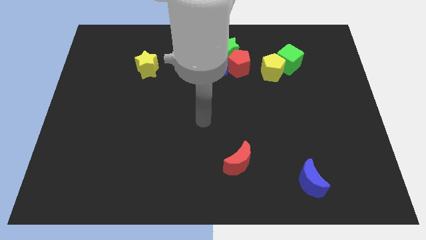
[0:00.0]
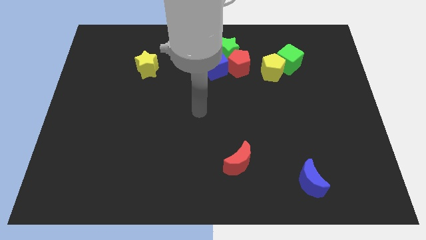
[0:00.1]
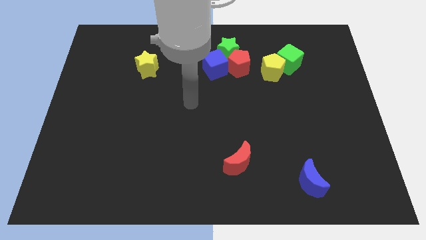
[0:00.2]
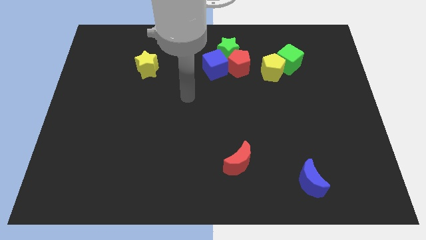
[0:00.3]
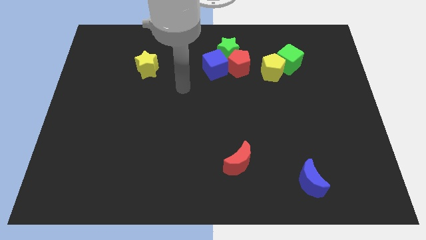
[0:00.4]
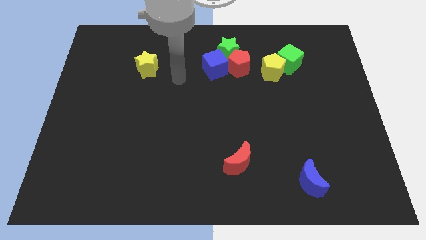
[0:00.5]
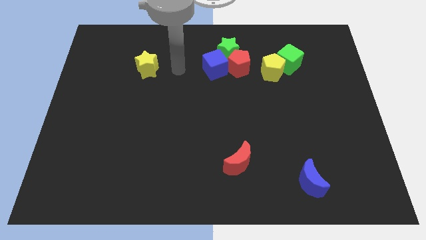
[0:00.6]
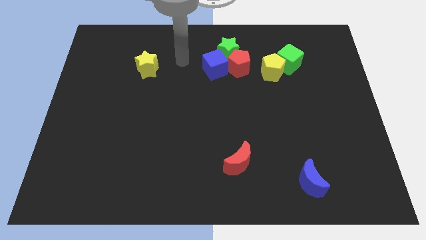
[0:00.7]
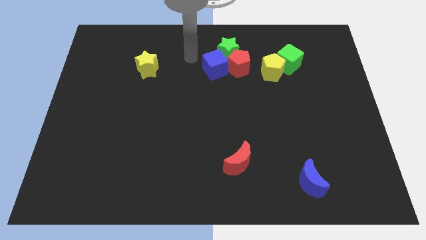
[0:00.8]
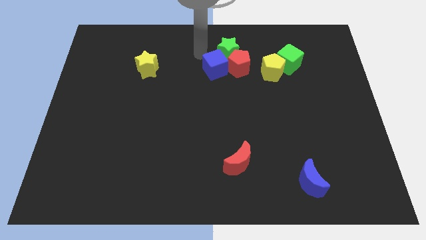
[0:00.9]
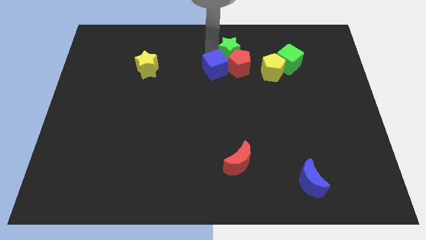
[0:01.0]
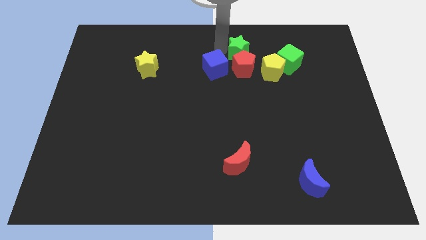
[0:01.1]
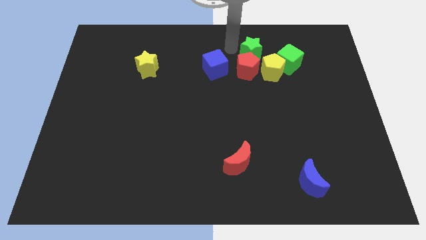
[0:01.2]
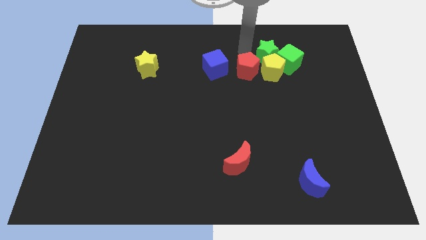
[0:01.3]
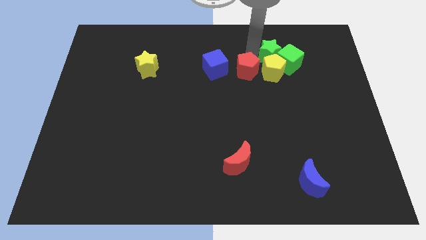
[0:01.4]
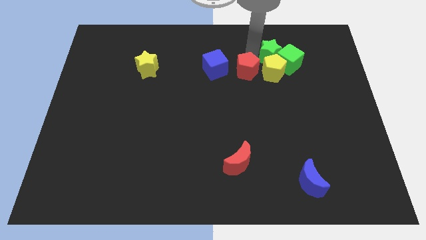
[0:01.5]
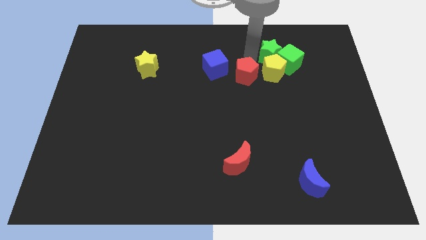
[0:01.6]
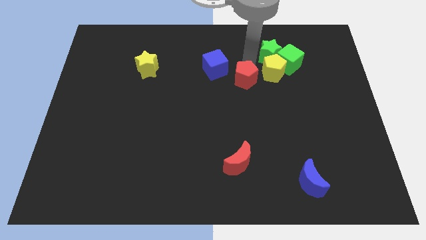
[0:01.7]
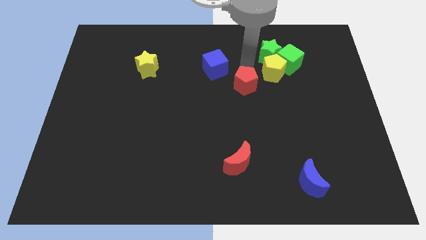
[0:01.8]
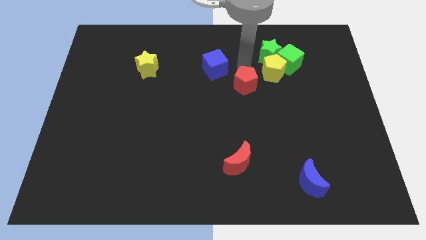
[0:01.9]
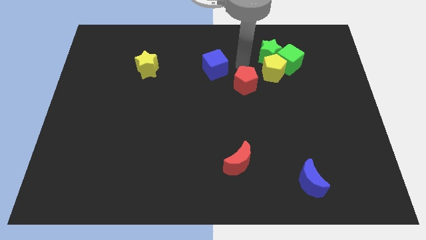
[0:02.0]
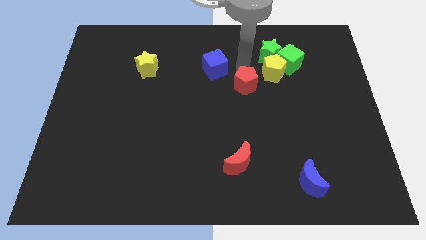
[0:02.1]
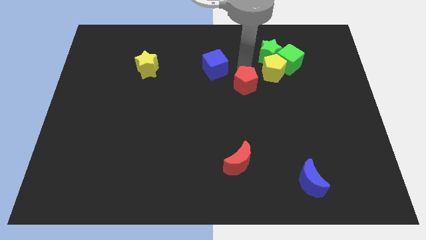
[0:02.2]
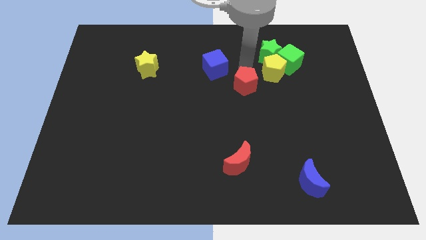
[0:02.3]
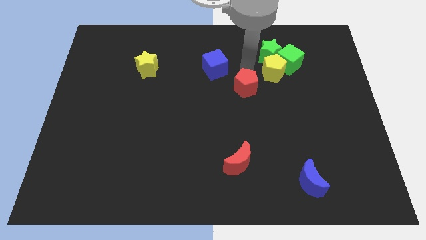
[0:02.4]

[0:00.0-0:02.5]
slightly push the red pentagon downwards

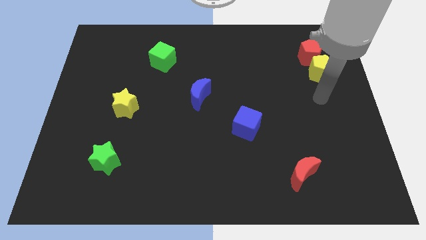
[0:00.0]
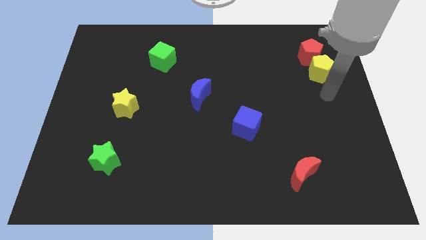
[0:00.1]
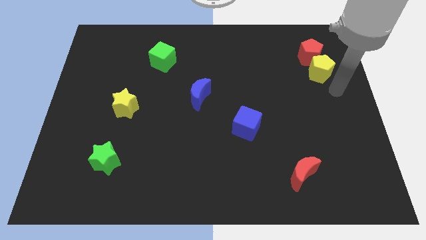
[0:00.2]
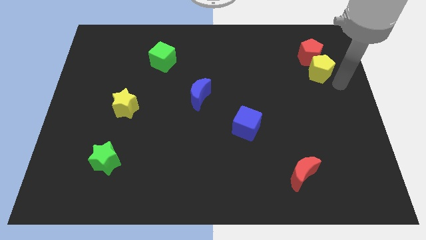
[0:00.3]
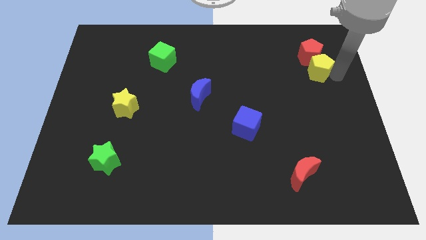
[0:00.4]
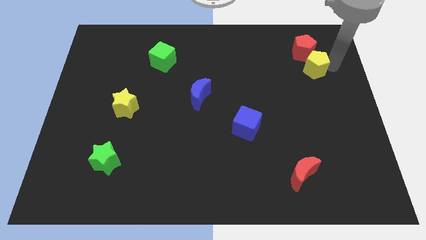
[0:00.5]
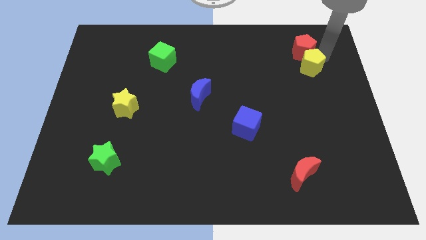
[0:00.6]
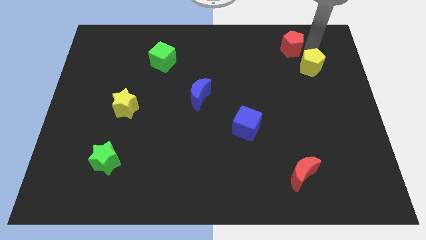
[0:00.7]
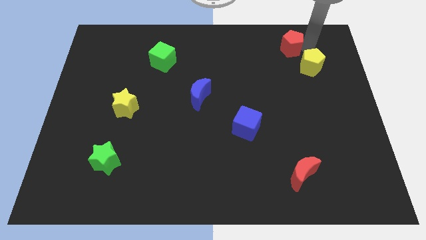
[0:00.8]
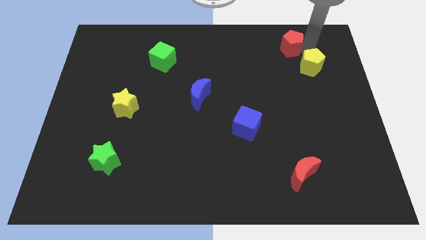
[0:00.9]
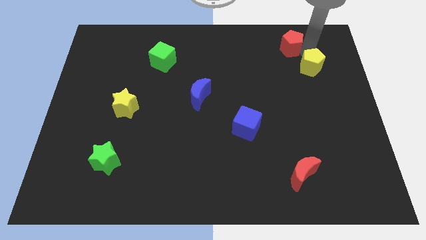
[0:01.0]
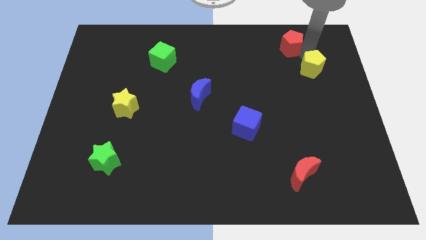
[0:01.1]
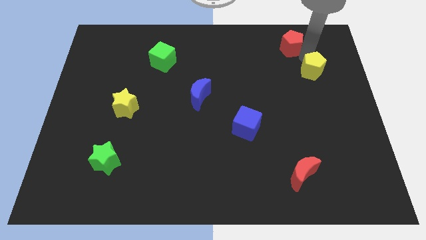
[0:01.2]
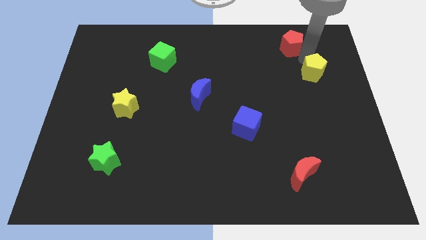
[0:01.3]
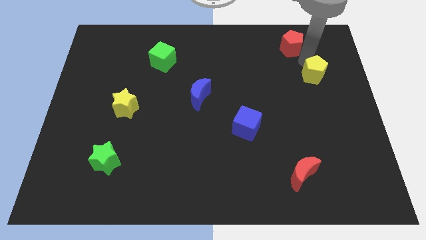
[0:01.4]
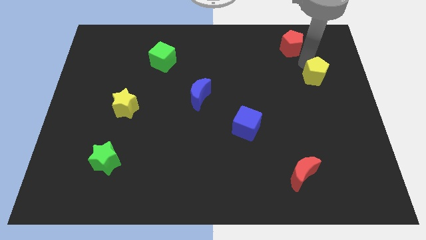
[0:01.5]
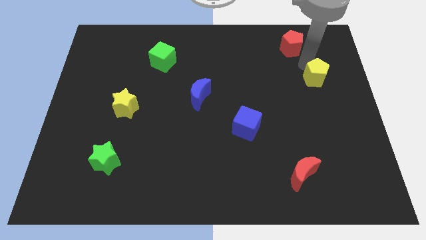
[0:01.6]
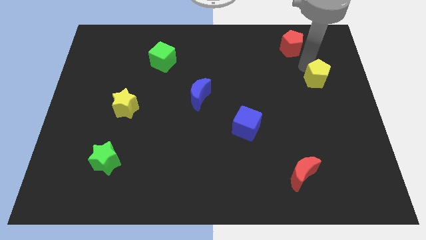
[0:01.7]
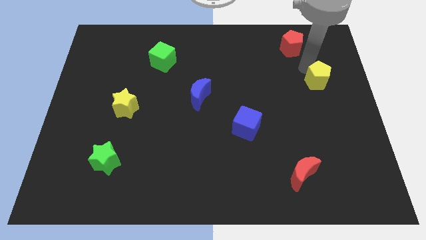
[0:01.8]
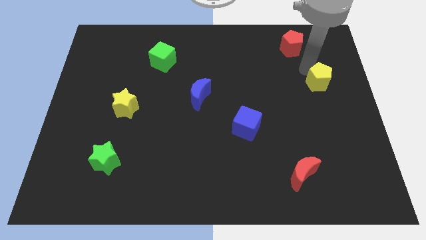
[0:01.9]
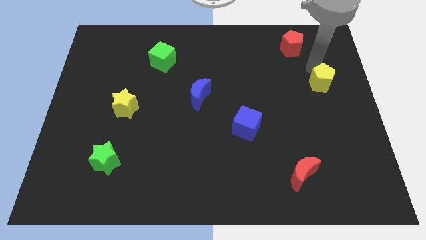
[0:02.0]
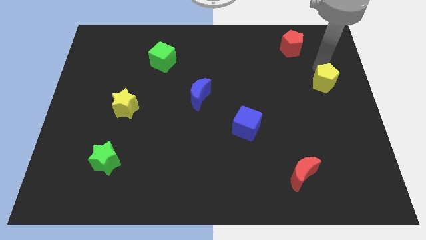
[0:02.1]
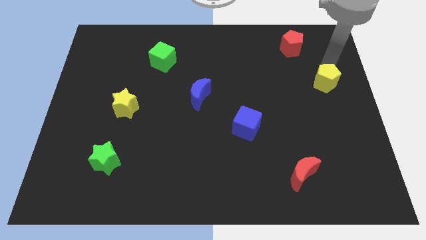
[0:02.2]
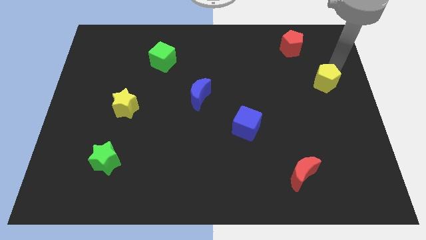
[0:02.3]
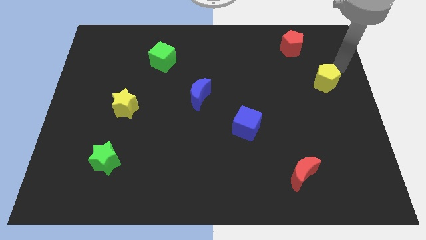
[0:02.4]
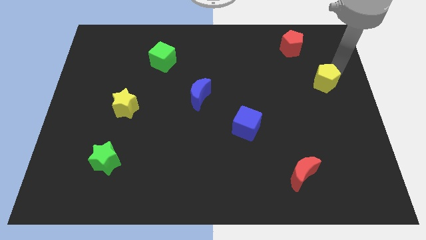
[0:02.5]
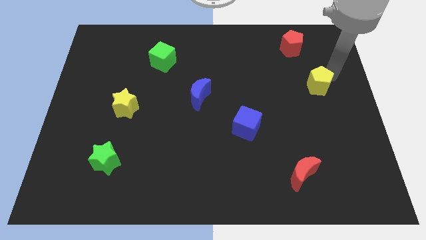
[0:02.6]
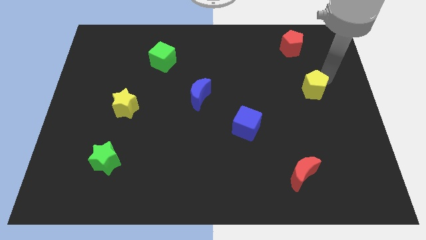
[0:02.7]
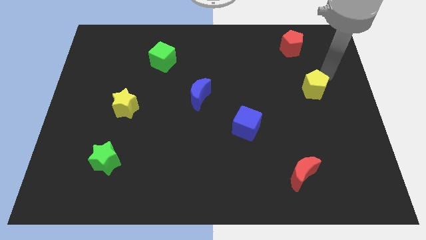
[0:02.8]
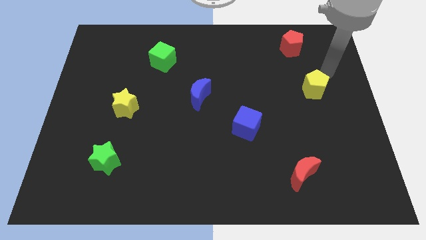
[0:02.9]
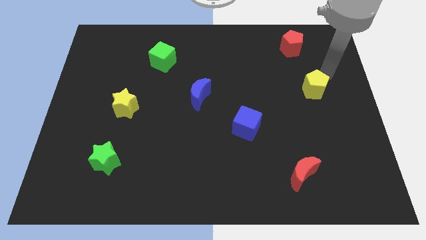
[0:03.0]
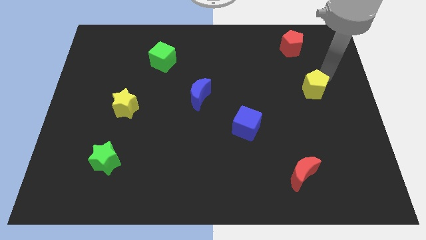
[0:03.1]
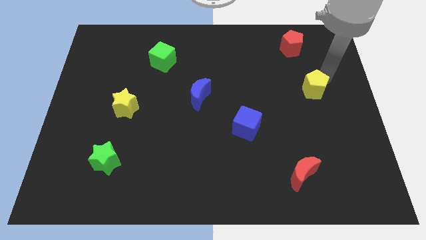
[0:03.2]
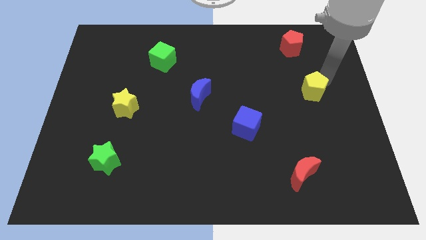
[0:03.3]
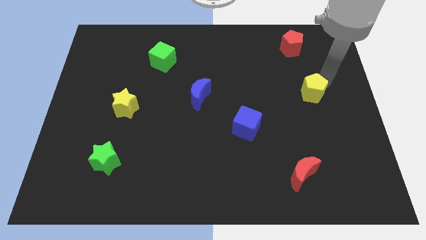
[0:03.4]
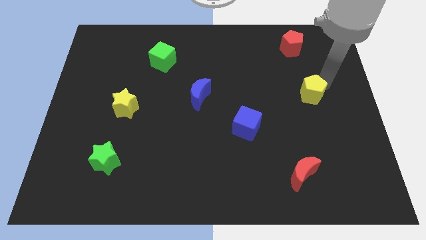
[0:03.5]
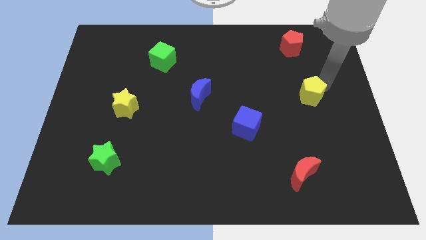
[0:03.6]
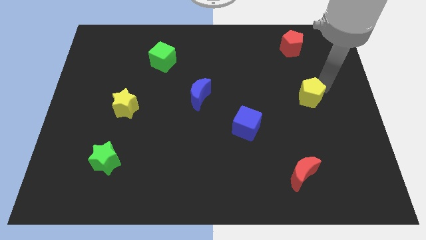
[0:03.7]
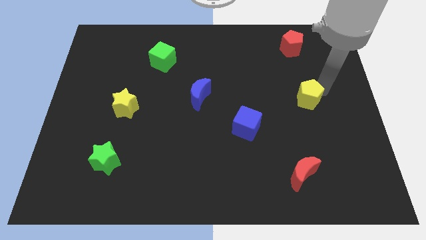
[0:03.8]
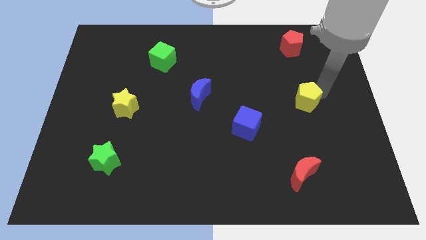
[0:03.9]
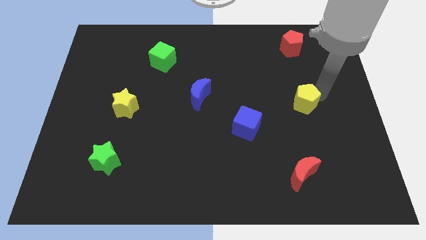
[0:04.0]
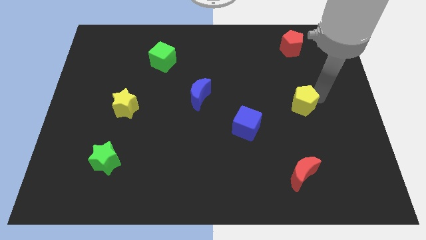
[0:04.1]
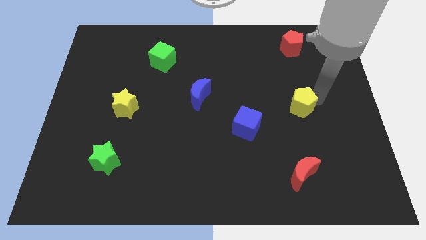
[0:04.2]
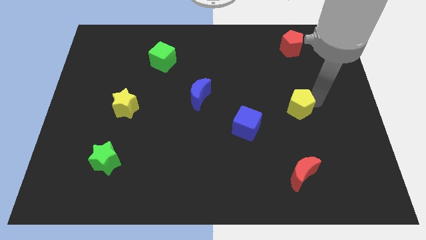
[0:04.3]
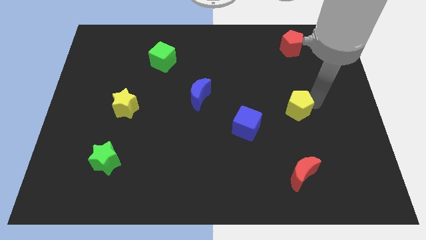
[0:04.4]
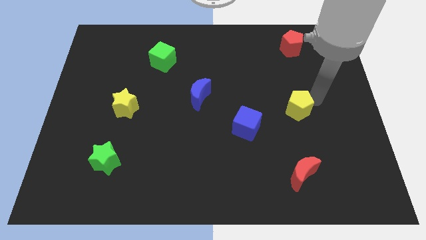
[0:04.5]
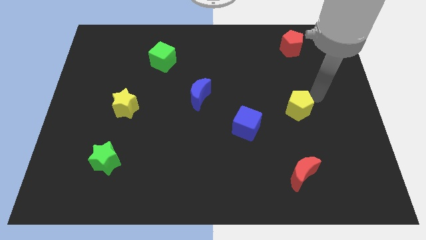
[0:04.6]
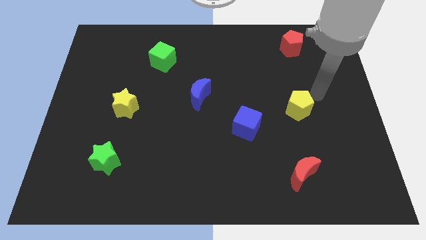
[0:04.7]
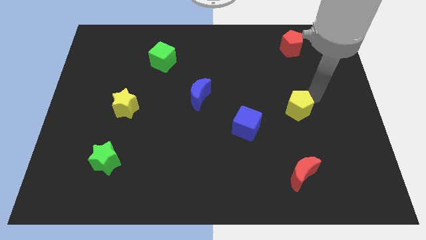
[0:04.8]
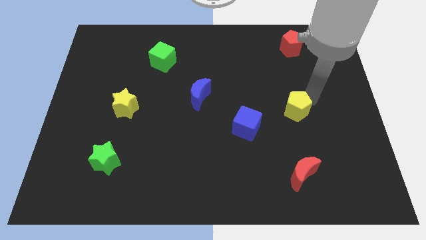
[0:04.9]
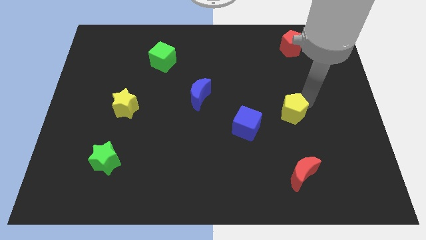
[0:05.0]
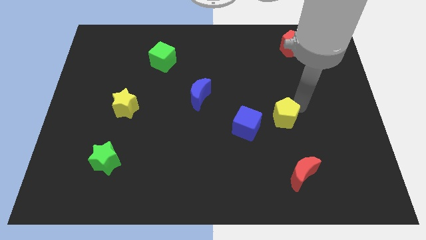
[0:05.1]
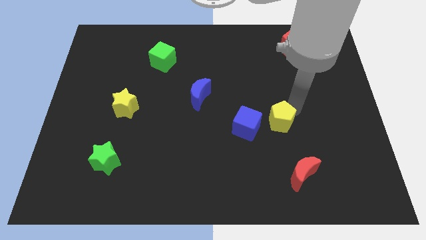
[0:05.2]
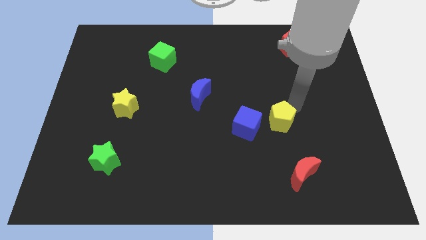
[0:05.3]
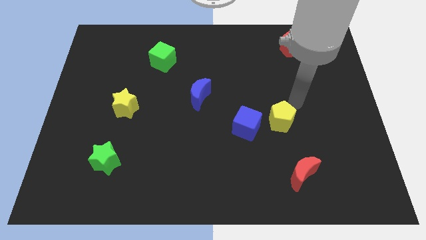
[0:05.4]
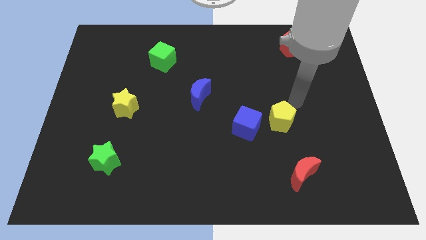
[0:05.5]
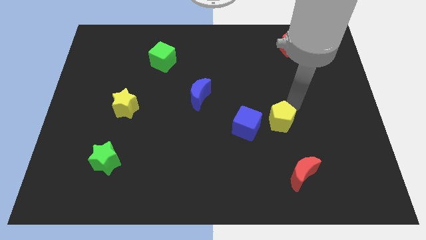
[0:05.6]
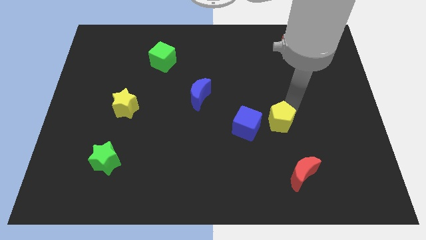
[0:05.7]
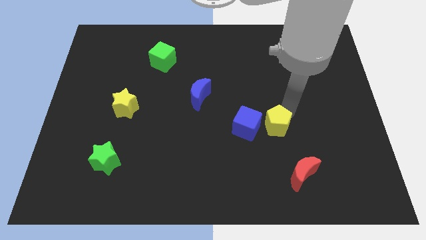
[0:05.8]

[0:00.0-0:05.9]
slide the yellow pentagon downwards and to the left diagonally
